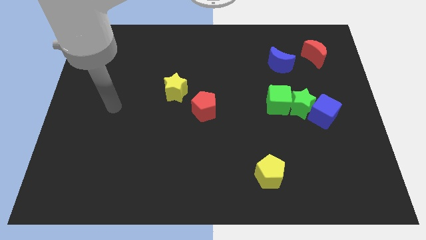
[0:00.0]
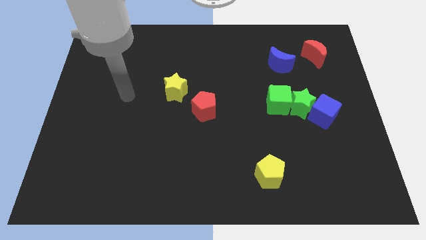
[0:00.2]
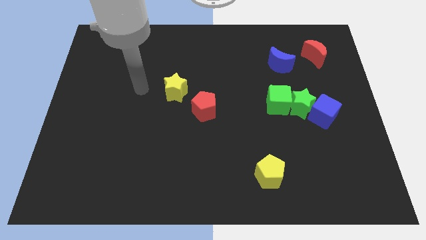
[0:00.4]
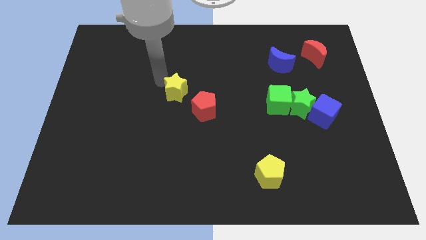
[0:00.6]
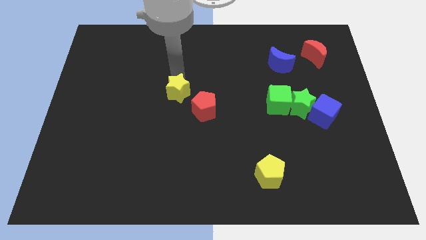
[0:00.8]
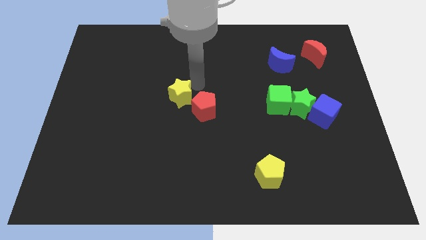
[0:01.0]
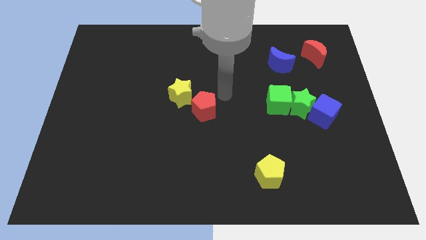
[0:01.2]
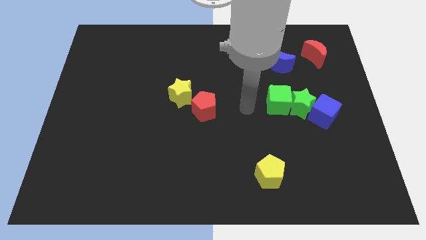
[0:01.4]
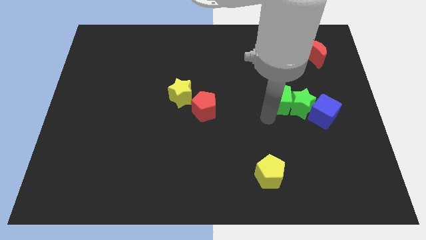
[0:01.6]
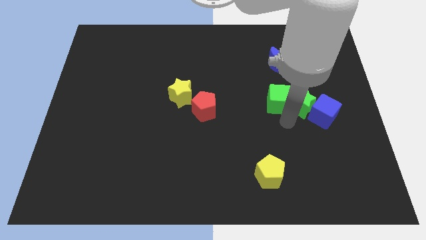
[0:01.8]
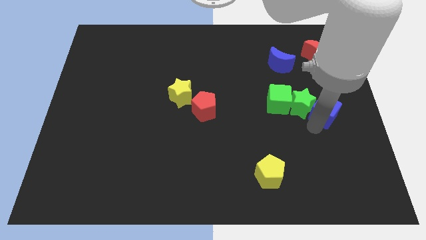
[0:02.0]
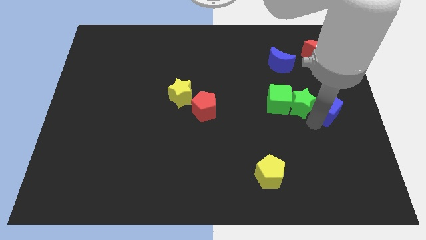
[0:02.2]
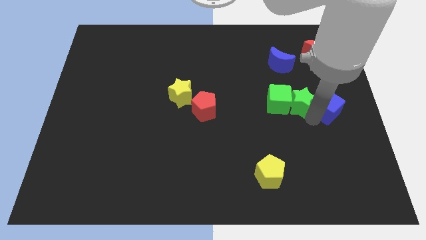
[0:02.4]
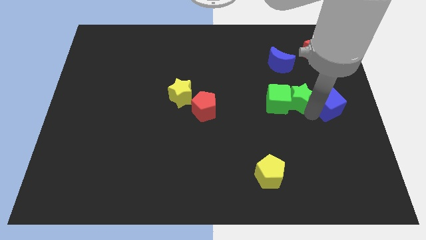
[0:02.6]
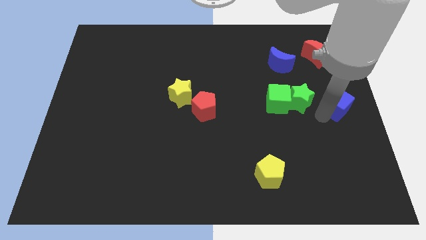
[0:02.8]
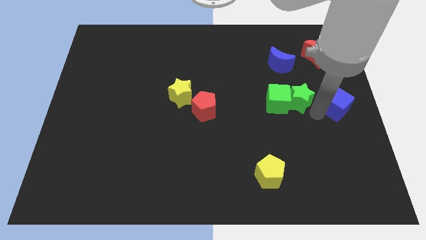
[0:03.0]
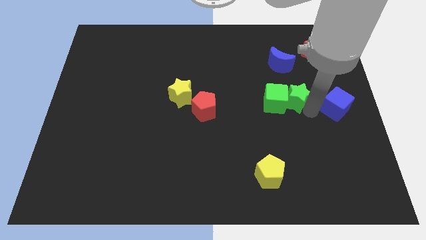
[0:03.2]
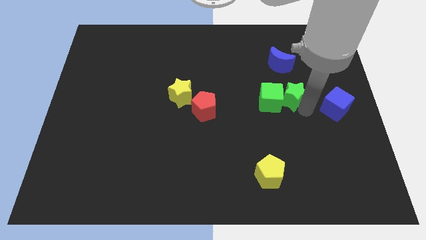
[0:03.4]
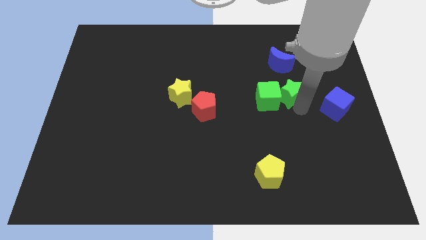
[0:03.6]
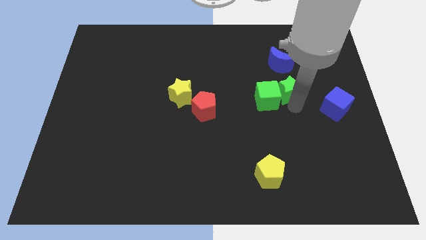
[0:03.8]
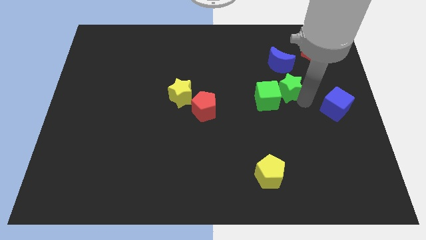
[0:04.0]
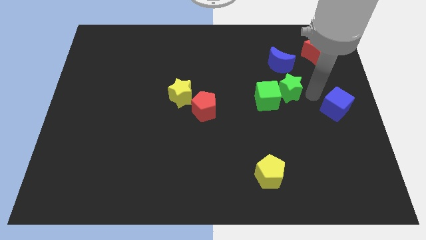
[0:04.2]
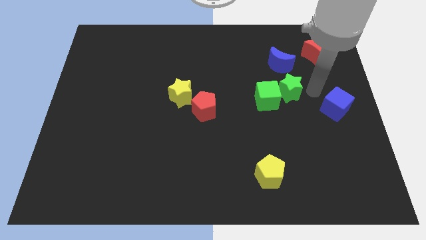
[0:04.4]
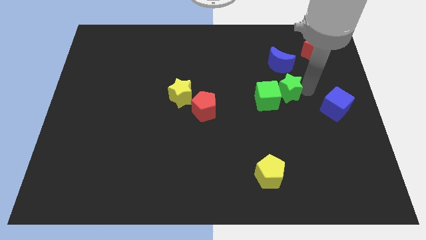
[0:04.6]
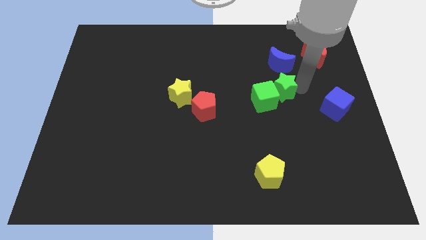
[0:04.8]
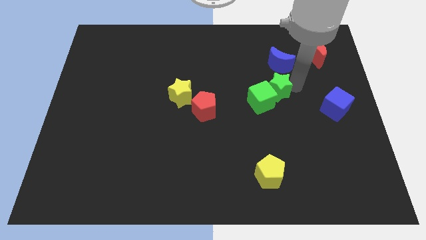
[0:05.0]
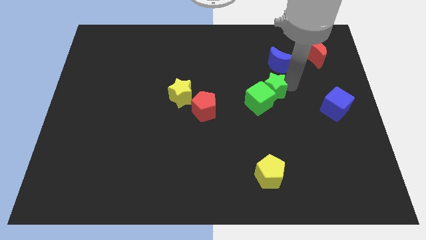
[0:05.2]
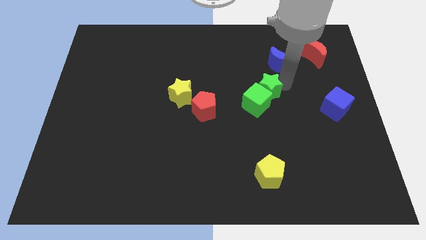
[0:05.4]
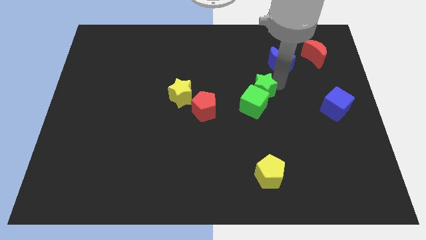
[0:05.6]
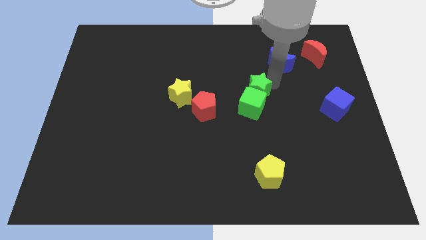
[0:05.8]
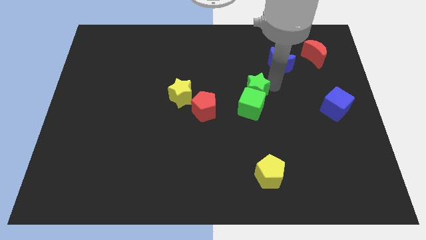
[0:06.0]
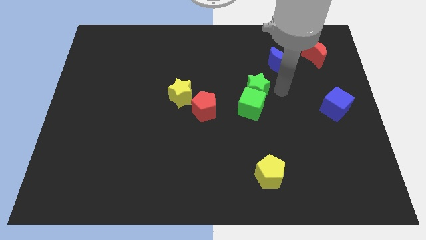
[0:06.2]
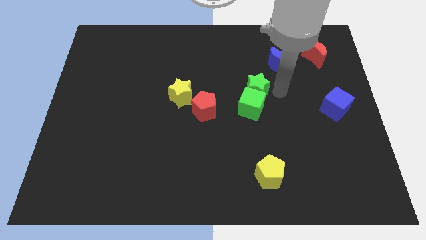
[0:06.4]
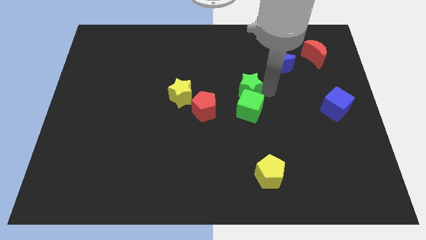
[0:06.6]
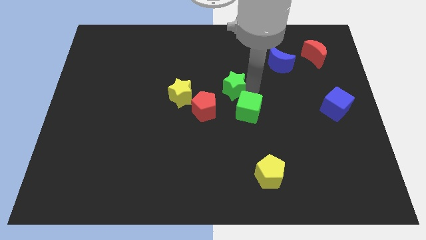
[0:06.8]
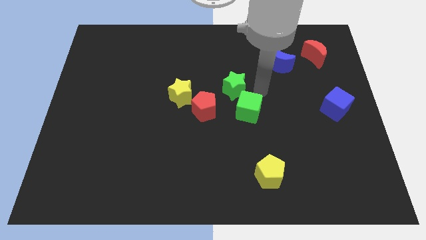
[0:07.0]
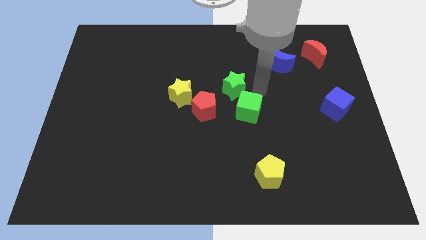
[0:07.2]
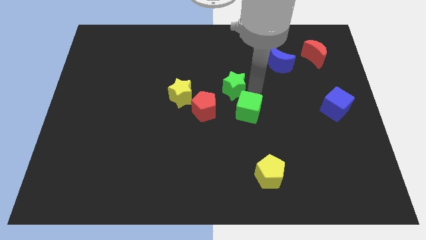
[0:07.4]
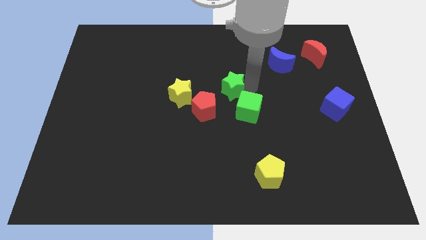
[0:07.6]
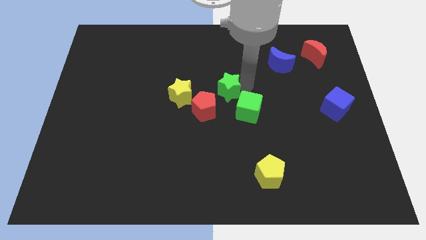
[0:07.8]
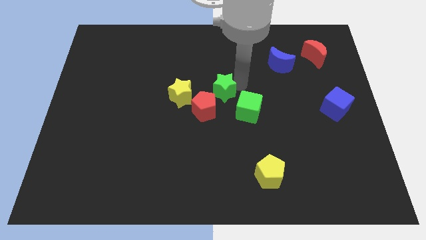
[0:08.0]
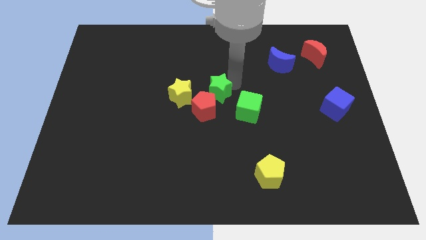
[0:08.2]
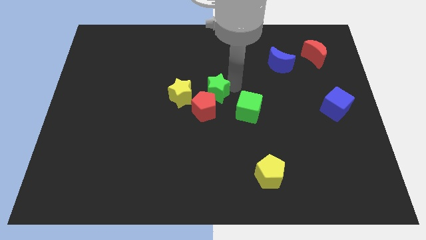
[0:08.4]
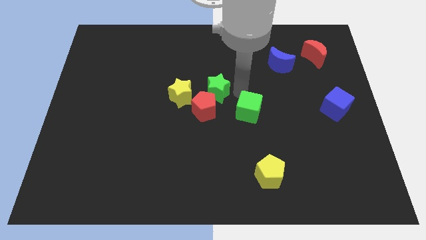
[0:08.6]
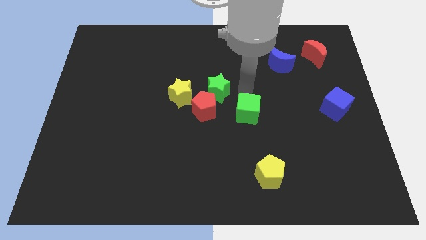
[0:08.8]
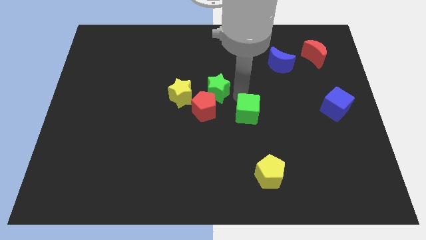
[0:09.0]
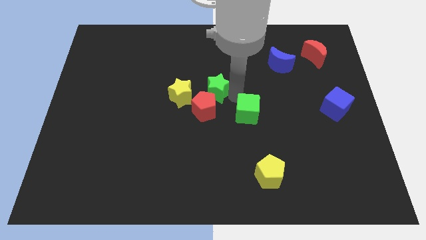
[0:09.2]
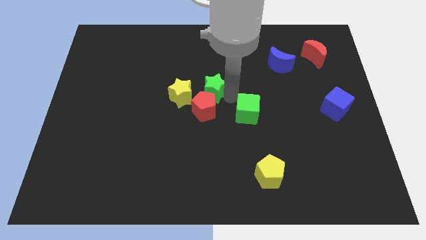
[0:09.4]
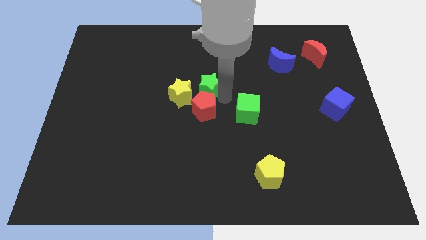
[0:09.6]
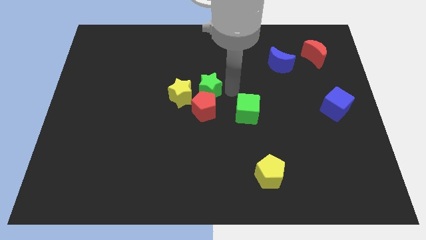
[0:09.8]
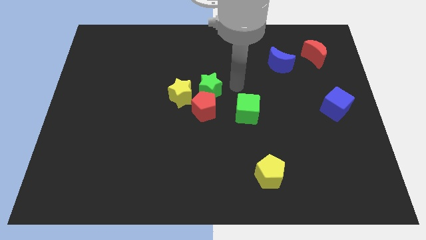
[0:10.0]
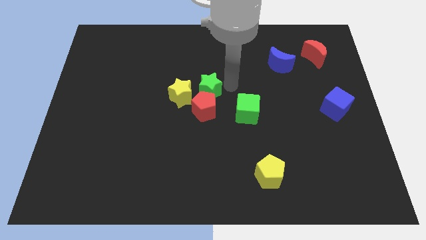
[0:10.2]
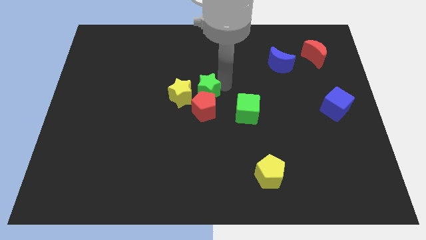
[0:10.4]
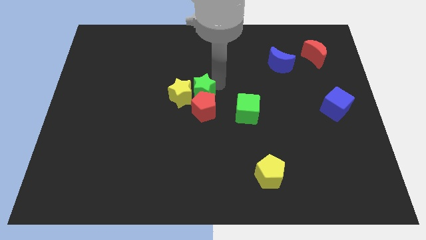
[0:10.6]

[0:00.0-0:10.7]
slide the green star towards the yellow star
